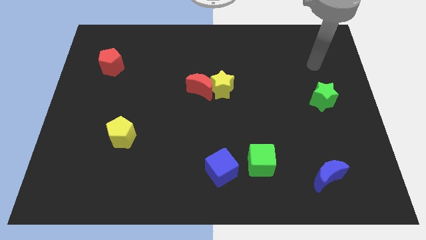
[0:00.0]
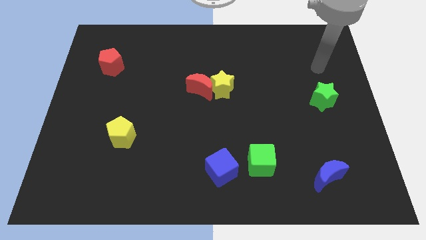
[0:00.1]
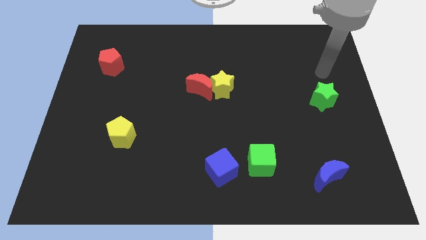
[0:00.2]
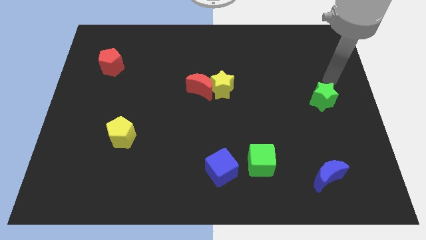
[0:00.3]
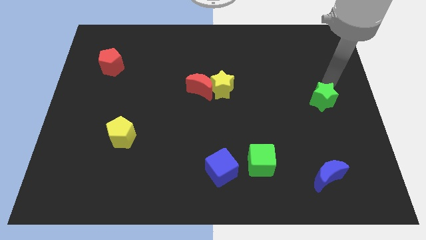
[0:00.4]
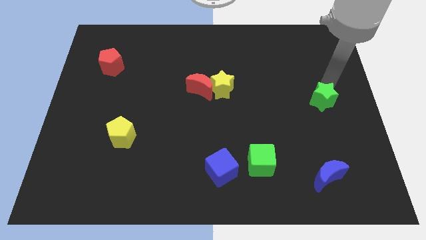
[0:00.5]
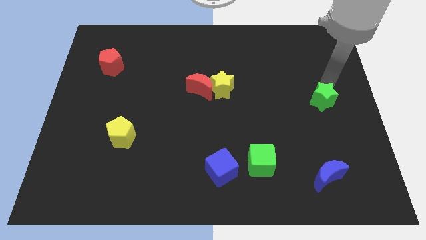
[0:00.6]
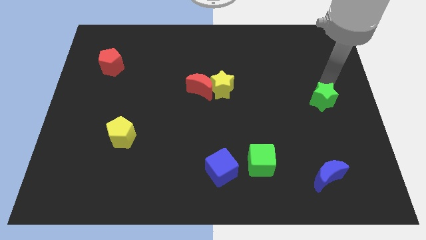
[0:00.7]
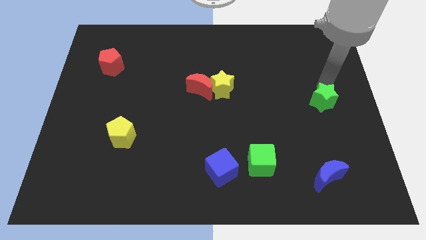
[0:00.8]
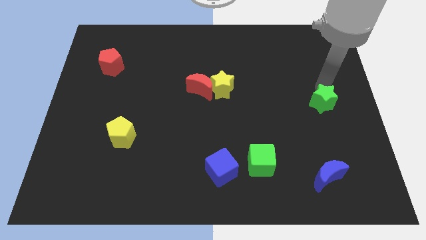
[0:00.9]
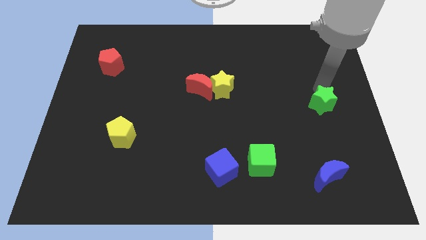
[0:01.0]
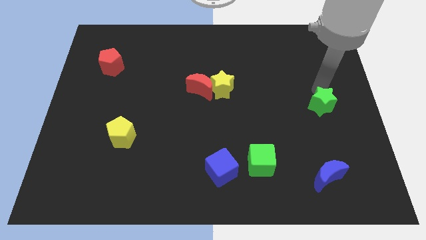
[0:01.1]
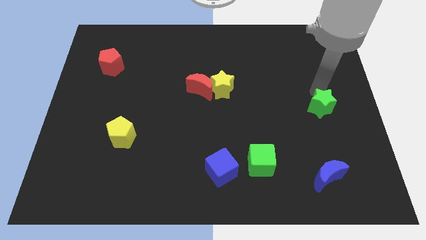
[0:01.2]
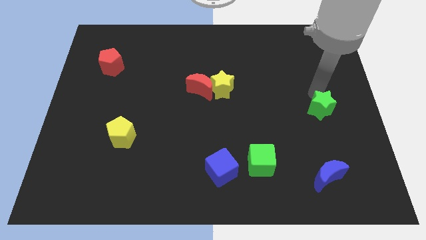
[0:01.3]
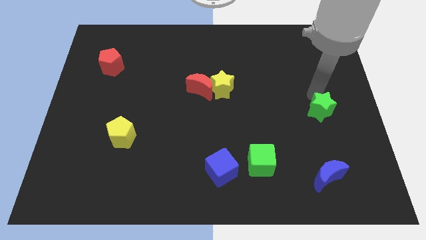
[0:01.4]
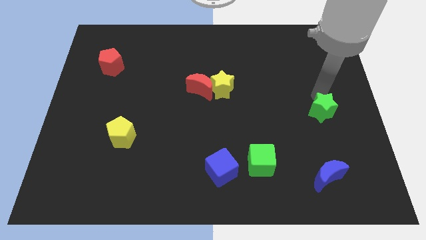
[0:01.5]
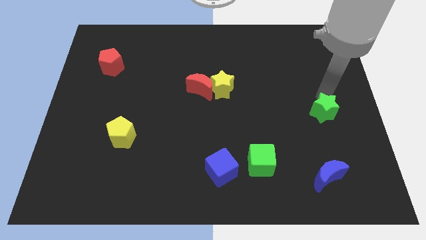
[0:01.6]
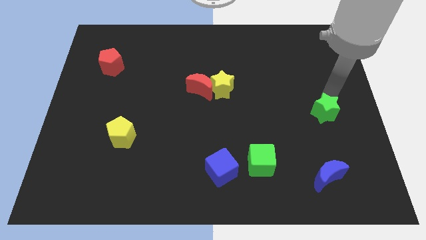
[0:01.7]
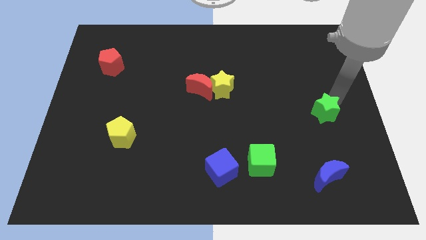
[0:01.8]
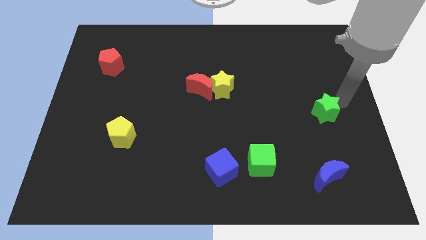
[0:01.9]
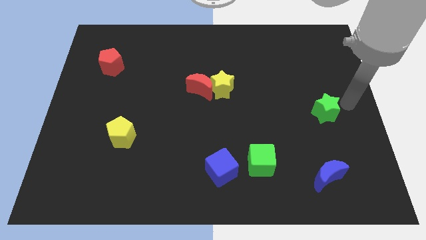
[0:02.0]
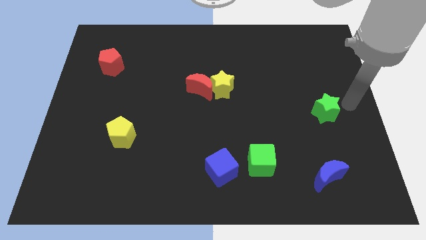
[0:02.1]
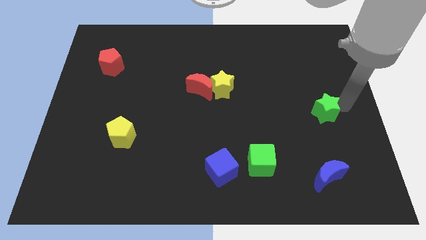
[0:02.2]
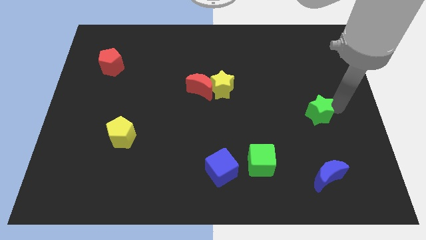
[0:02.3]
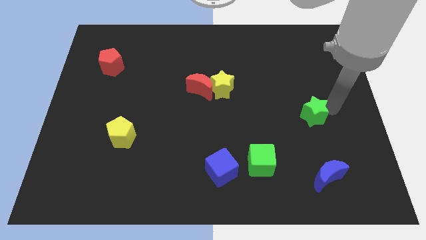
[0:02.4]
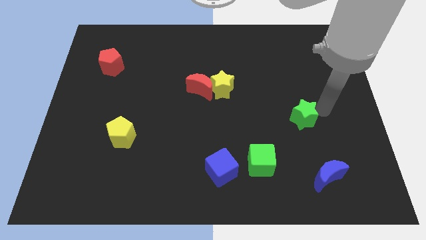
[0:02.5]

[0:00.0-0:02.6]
slightly move the green star down and to the left

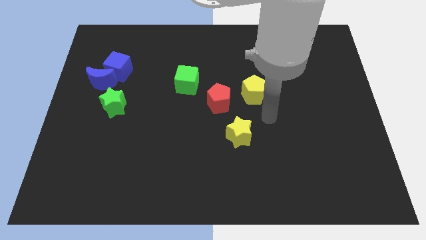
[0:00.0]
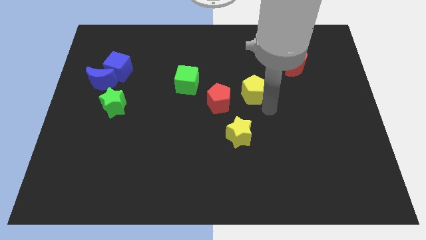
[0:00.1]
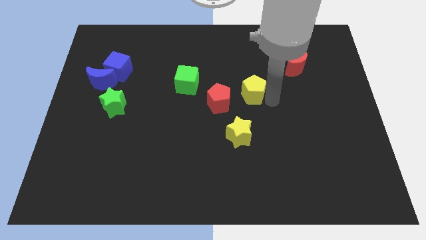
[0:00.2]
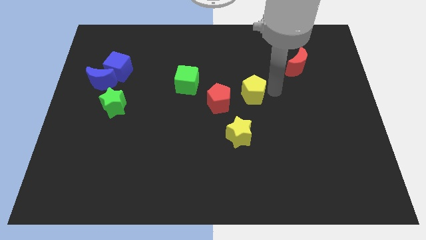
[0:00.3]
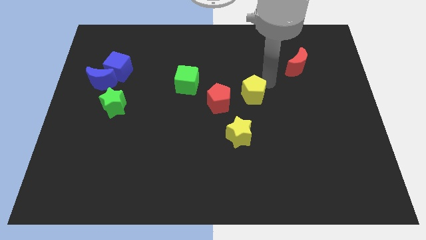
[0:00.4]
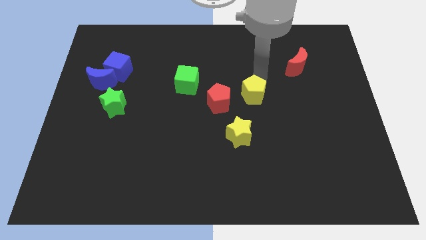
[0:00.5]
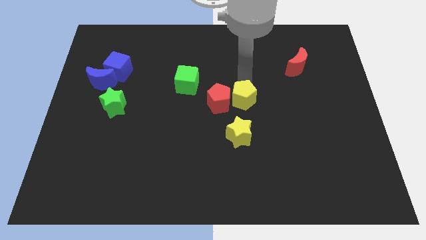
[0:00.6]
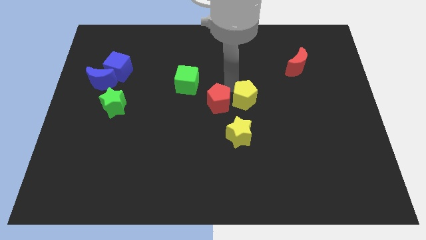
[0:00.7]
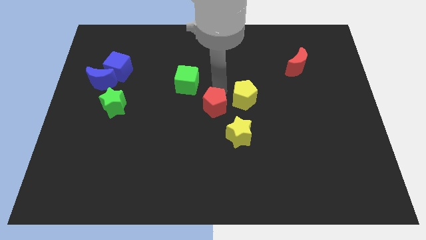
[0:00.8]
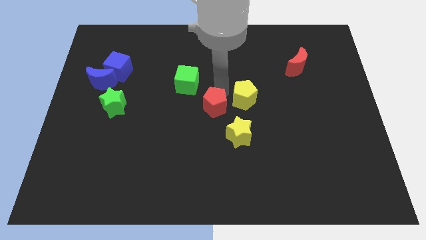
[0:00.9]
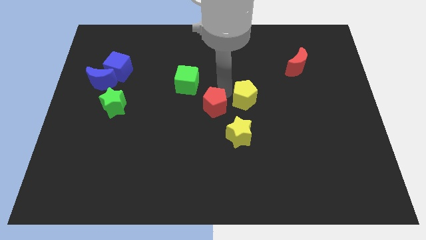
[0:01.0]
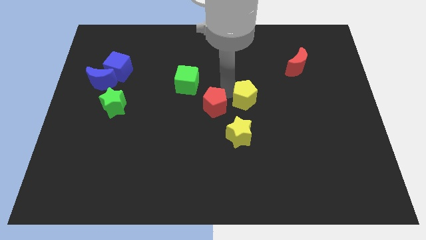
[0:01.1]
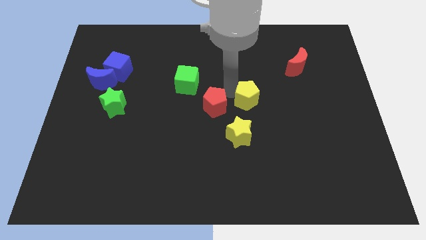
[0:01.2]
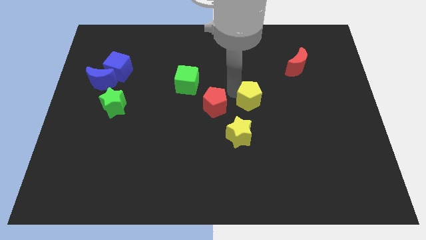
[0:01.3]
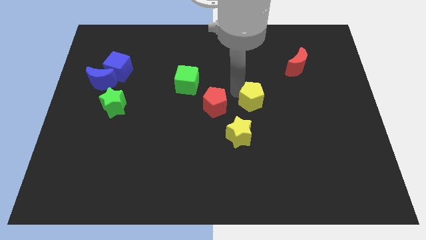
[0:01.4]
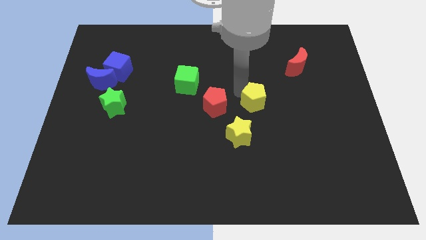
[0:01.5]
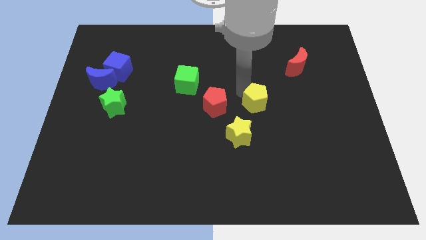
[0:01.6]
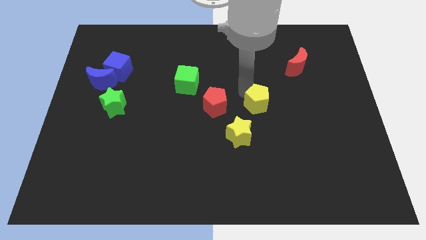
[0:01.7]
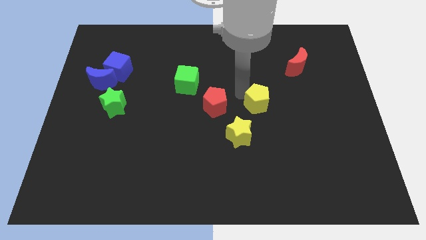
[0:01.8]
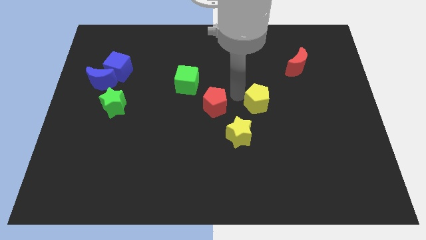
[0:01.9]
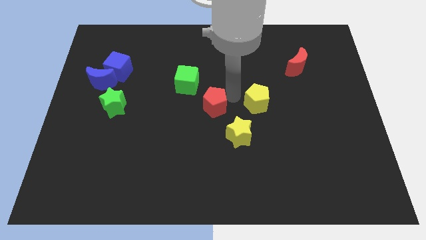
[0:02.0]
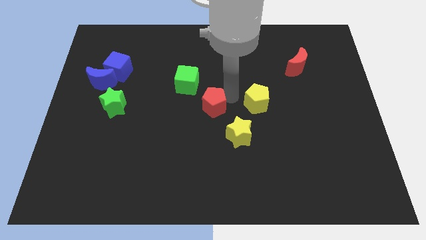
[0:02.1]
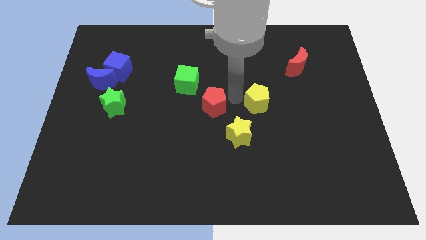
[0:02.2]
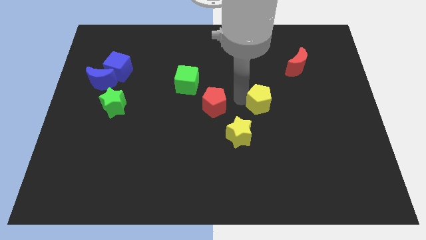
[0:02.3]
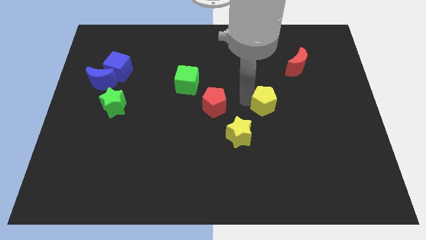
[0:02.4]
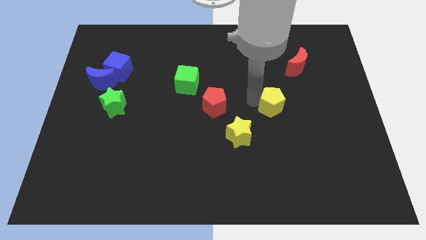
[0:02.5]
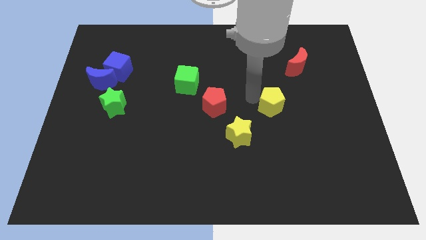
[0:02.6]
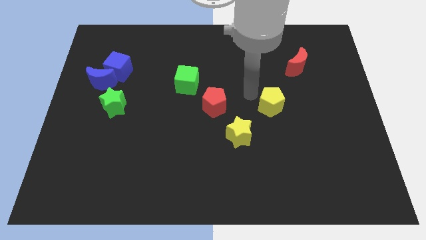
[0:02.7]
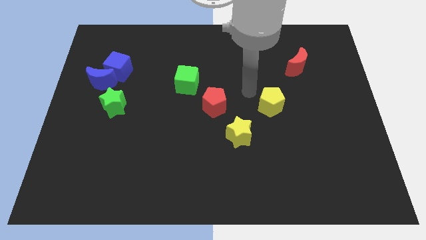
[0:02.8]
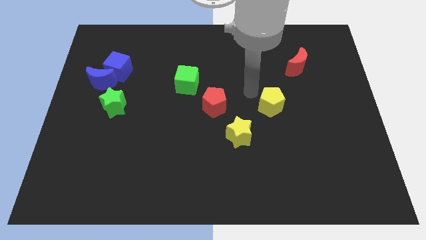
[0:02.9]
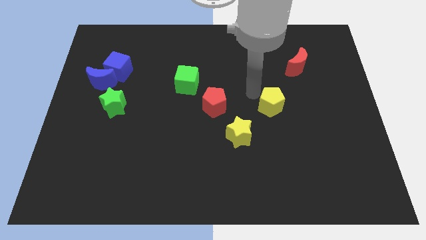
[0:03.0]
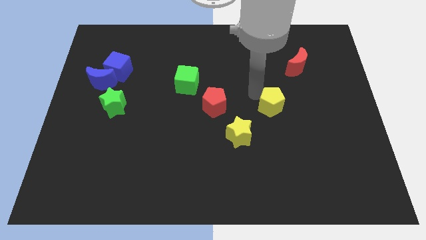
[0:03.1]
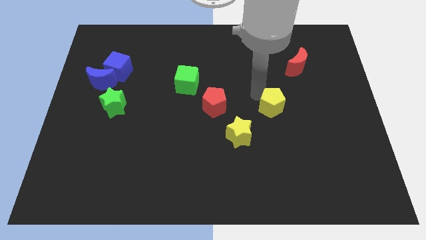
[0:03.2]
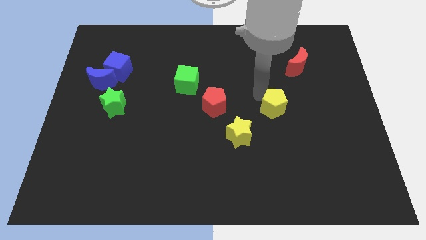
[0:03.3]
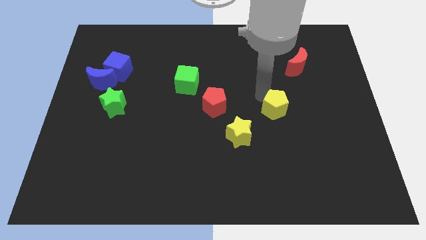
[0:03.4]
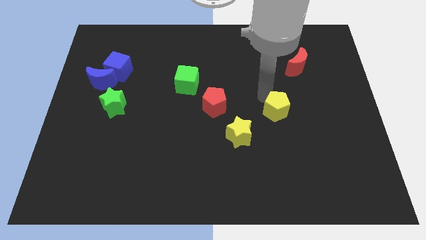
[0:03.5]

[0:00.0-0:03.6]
slightly push the yellow pentagon downwards and right diagonally

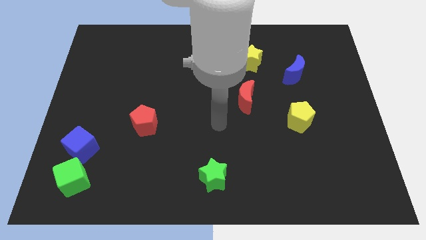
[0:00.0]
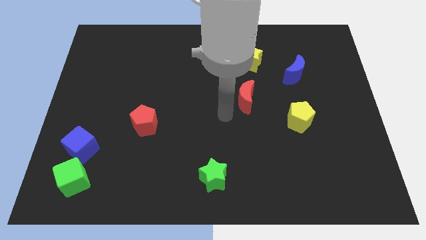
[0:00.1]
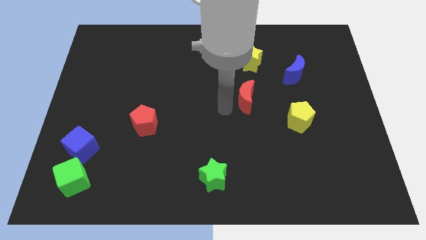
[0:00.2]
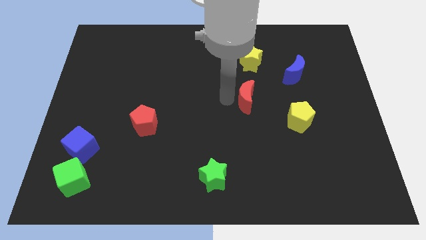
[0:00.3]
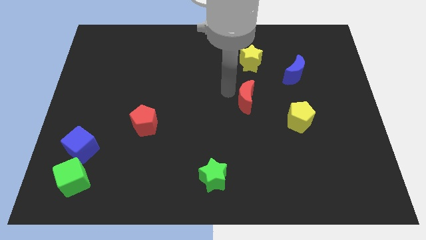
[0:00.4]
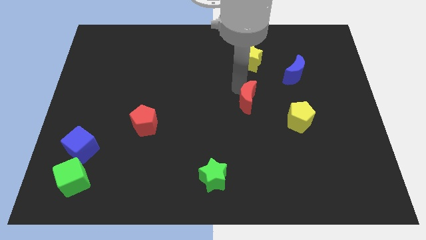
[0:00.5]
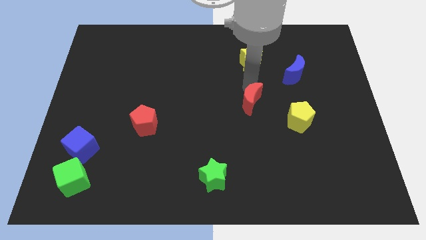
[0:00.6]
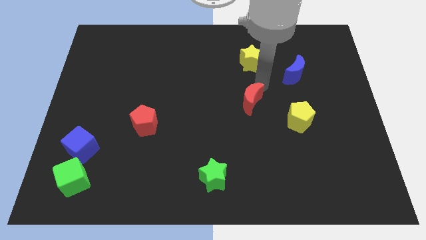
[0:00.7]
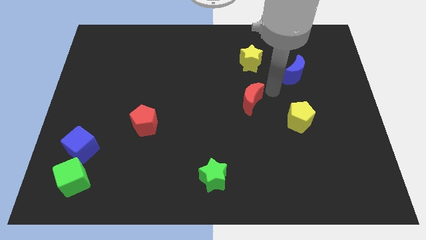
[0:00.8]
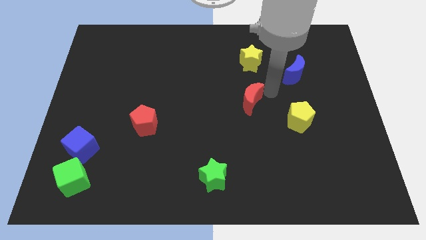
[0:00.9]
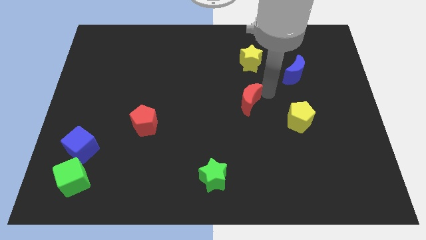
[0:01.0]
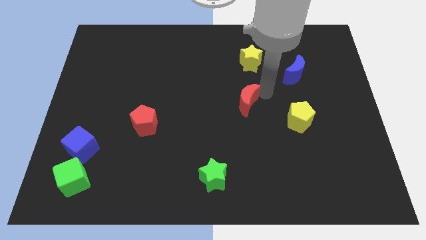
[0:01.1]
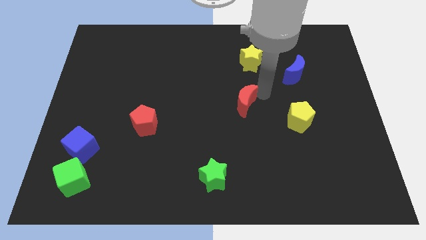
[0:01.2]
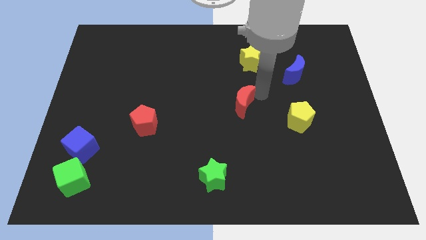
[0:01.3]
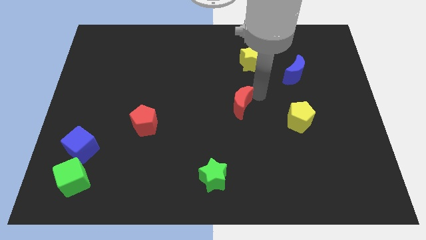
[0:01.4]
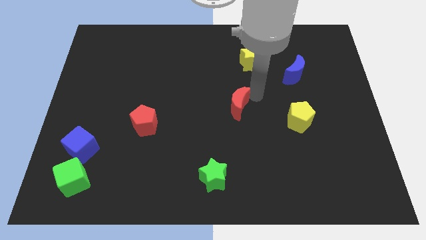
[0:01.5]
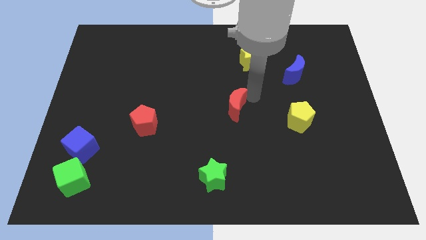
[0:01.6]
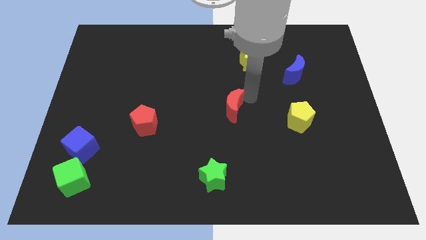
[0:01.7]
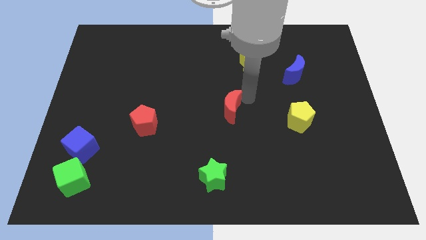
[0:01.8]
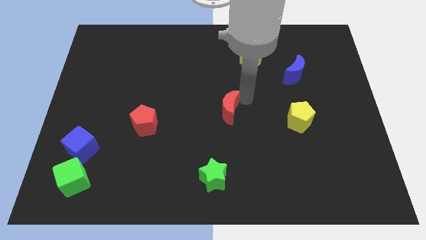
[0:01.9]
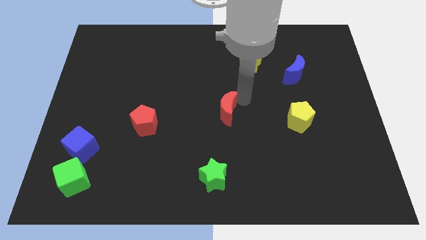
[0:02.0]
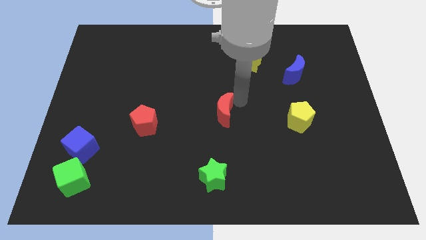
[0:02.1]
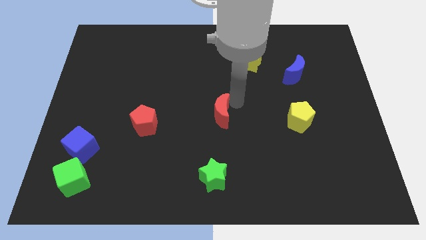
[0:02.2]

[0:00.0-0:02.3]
slightly move the red moon downwards and then to the left
